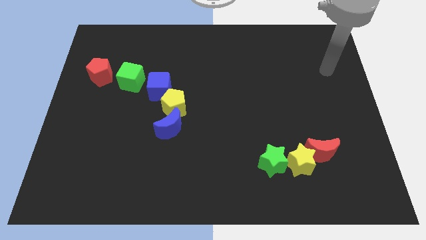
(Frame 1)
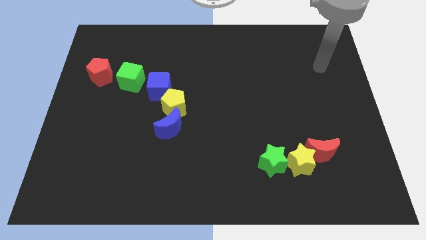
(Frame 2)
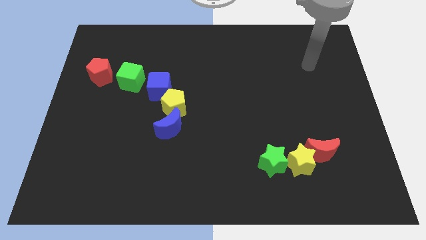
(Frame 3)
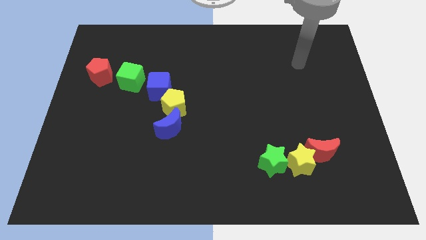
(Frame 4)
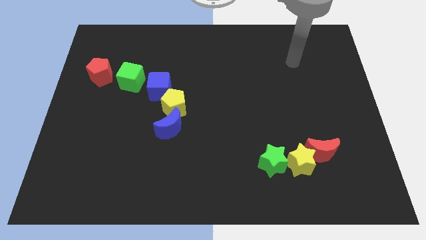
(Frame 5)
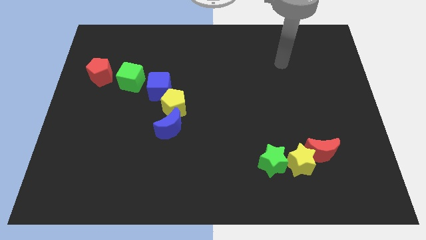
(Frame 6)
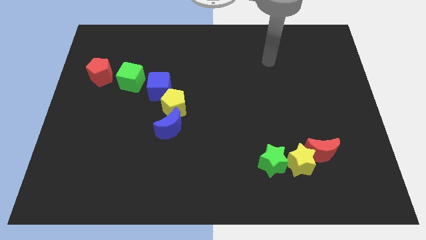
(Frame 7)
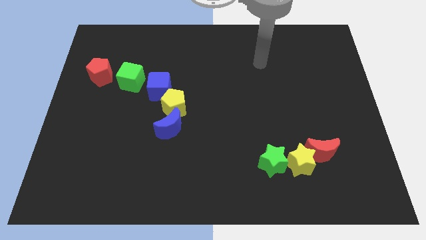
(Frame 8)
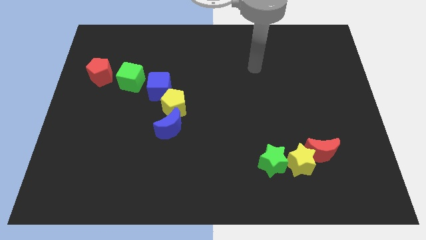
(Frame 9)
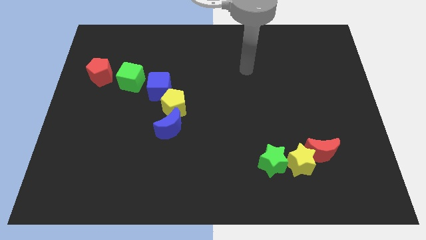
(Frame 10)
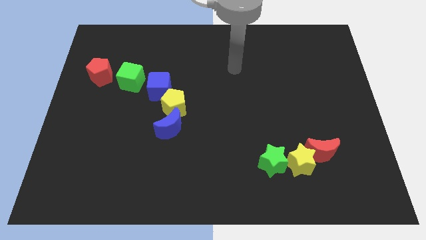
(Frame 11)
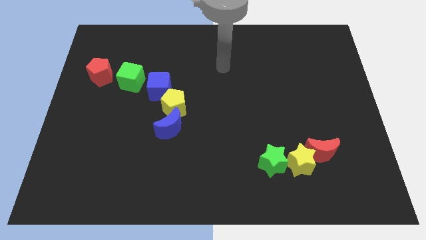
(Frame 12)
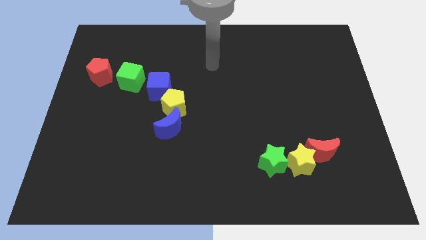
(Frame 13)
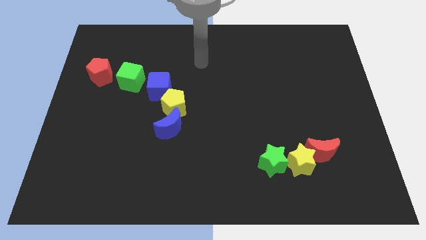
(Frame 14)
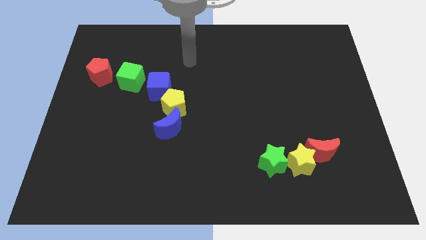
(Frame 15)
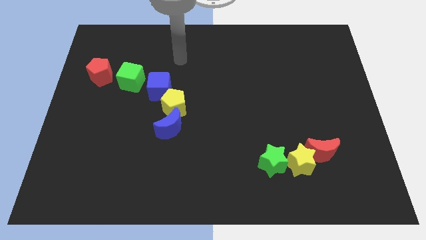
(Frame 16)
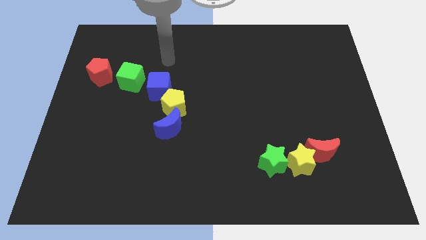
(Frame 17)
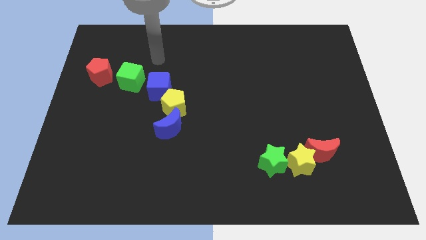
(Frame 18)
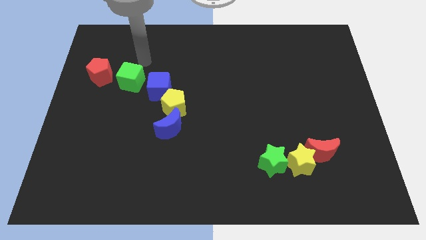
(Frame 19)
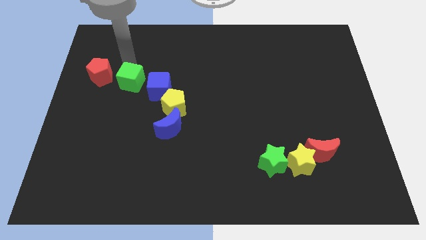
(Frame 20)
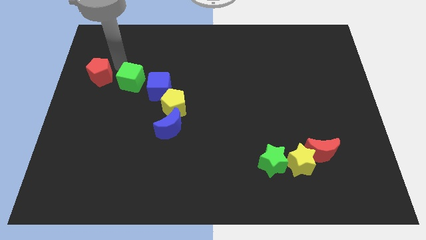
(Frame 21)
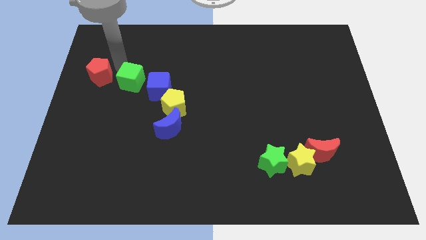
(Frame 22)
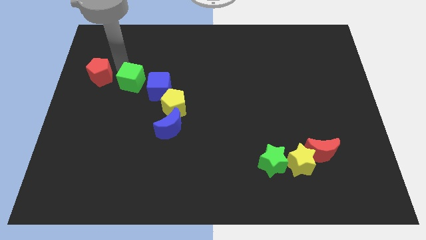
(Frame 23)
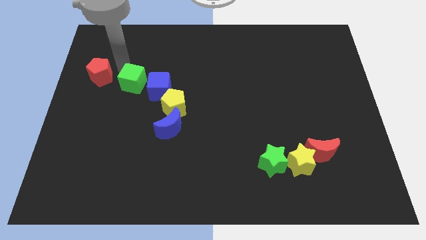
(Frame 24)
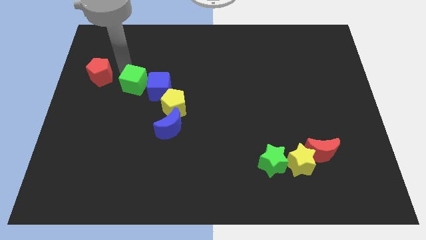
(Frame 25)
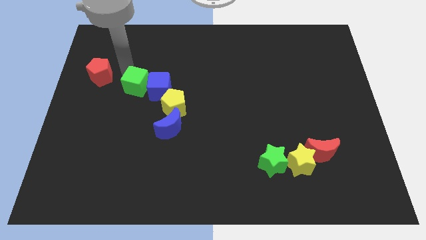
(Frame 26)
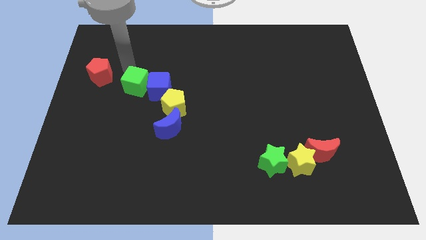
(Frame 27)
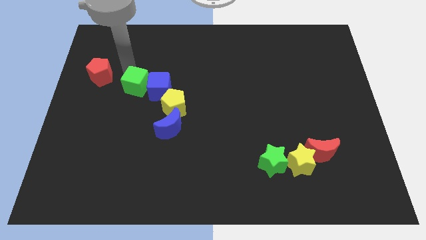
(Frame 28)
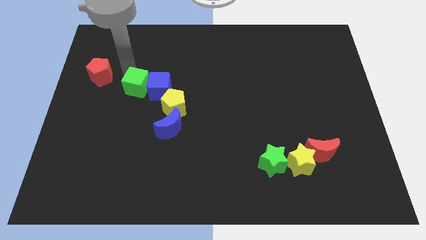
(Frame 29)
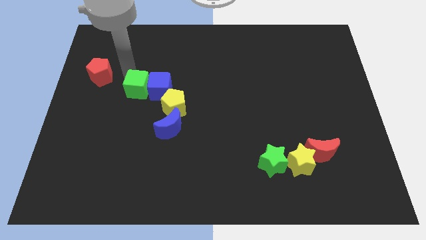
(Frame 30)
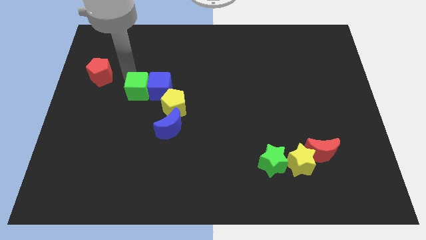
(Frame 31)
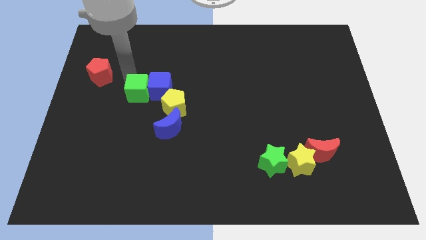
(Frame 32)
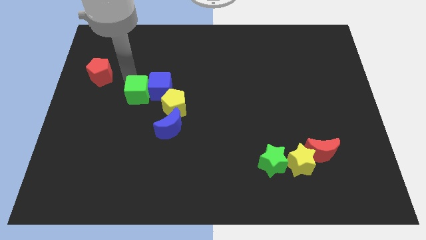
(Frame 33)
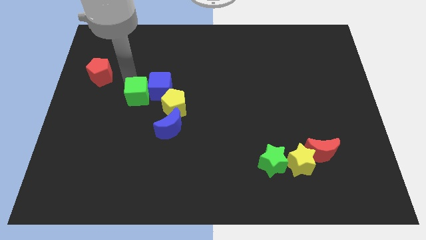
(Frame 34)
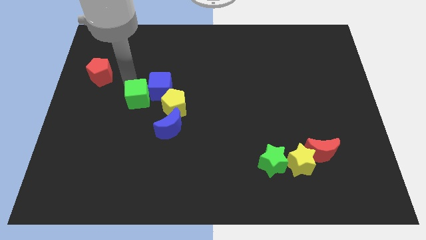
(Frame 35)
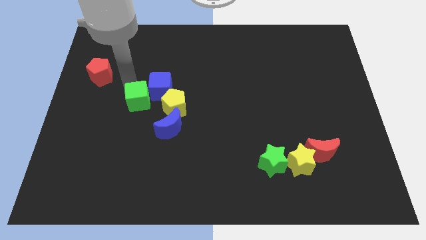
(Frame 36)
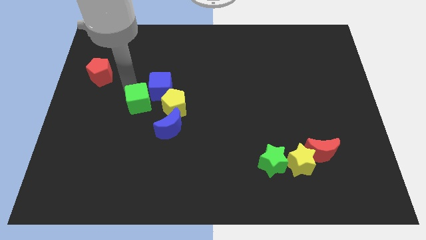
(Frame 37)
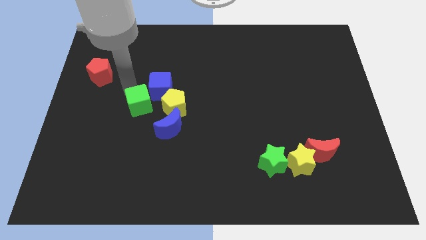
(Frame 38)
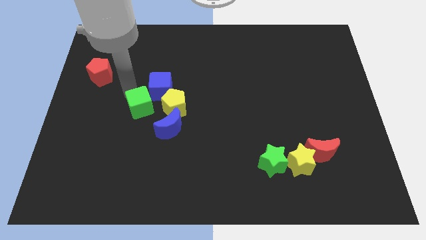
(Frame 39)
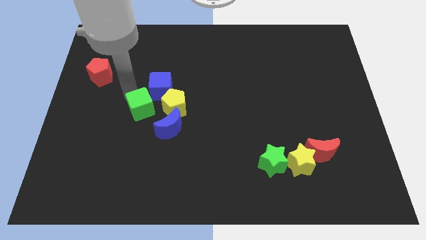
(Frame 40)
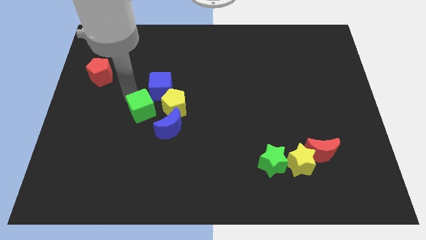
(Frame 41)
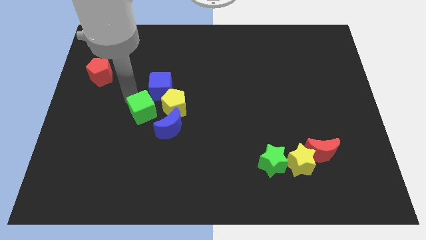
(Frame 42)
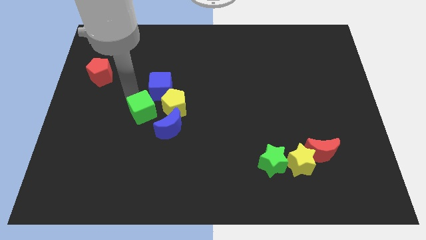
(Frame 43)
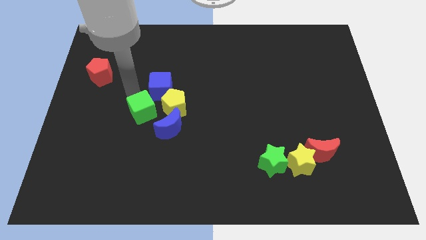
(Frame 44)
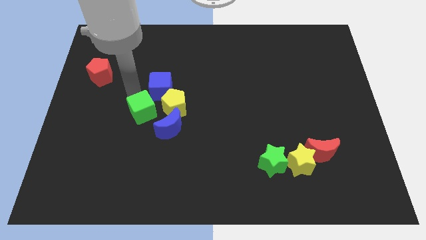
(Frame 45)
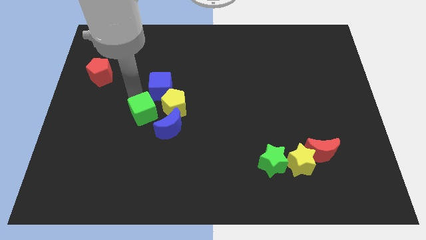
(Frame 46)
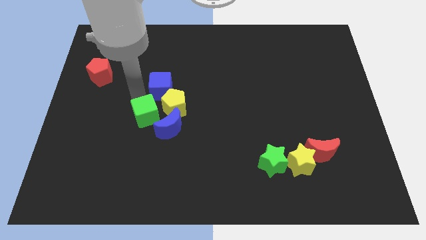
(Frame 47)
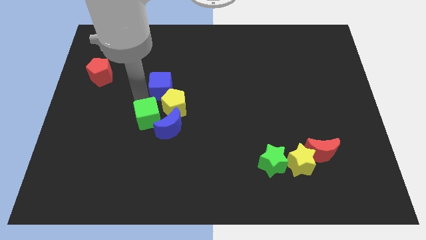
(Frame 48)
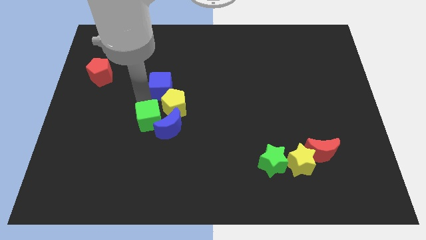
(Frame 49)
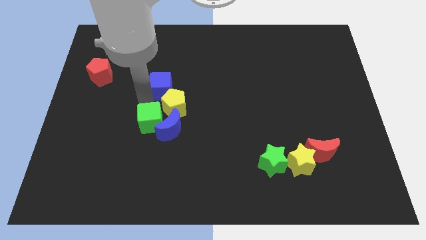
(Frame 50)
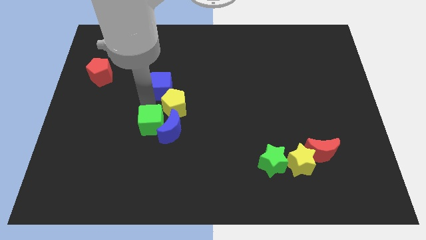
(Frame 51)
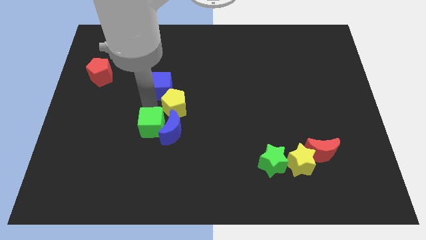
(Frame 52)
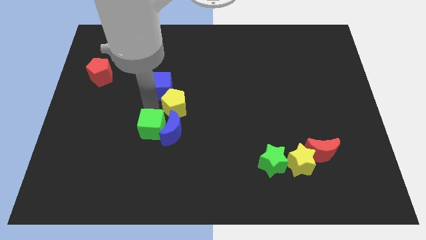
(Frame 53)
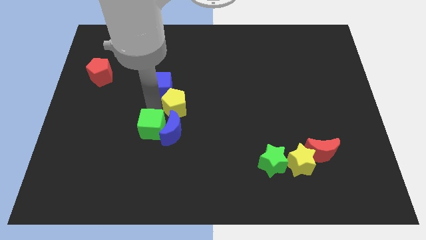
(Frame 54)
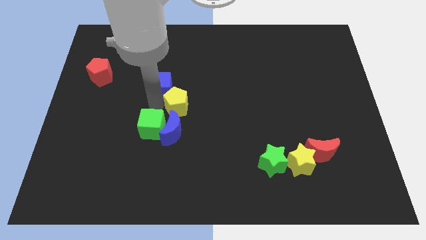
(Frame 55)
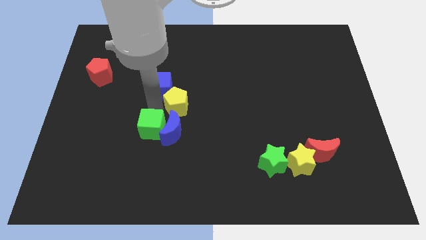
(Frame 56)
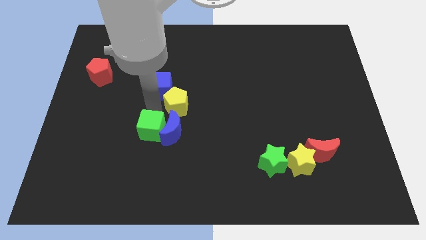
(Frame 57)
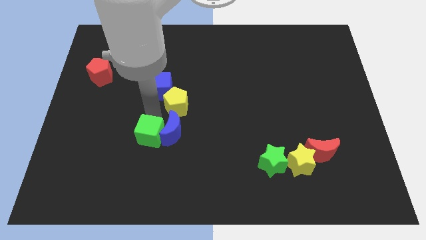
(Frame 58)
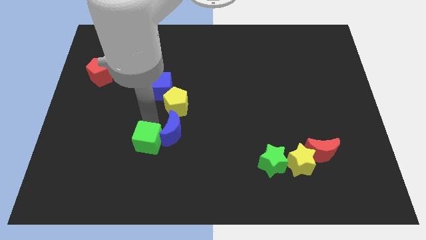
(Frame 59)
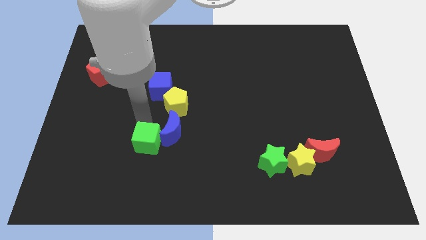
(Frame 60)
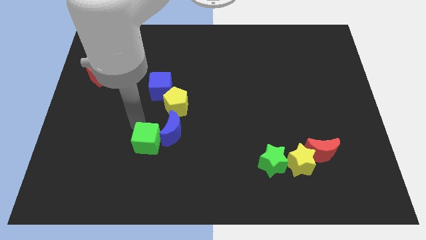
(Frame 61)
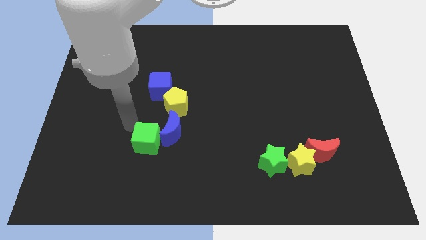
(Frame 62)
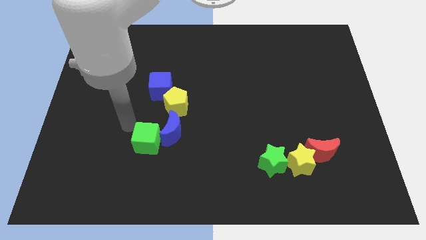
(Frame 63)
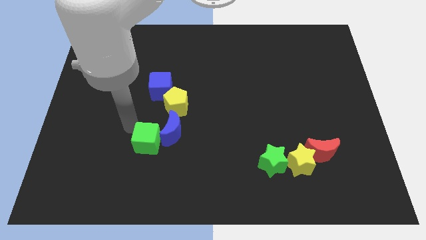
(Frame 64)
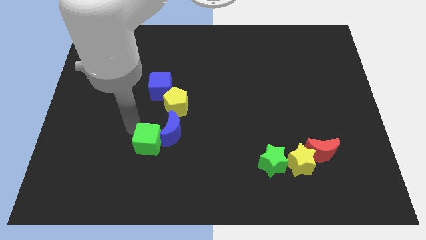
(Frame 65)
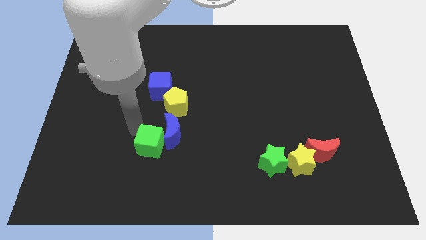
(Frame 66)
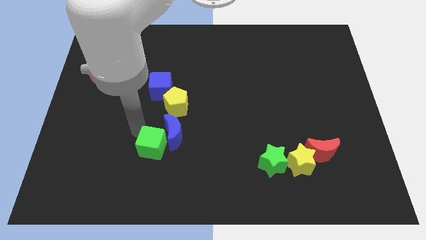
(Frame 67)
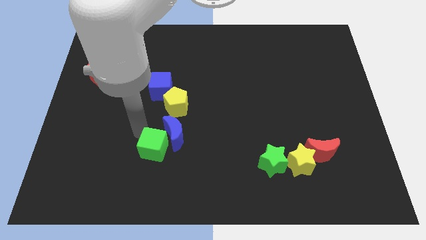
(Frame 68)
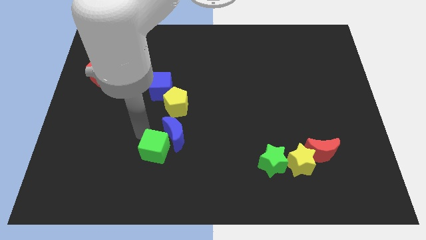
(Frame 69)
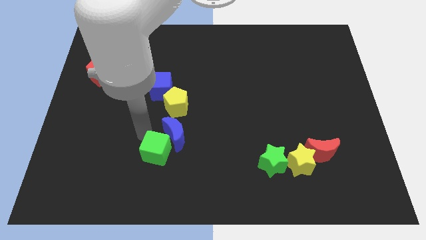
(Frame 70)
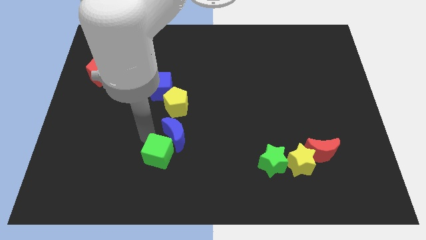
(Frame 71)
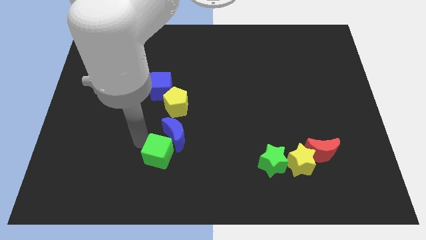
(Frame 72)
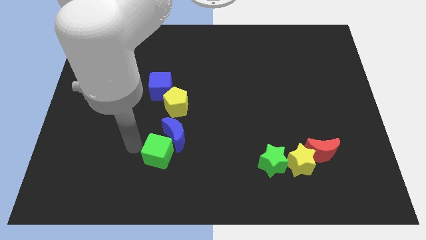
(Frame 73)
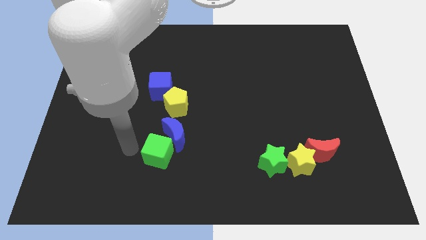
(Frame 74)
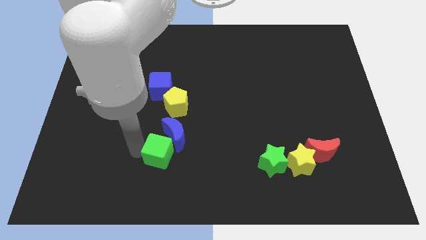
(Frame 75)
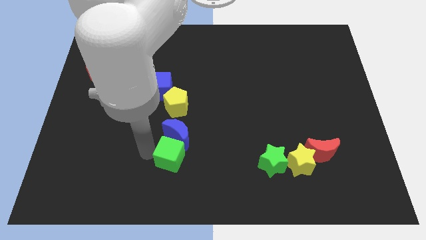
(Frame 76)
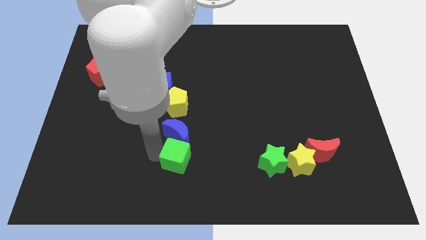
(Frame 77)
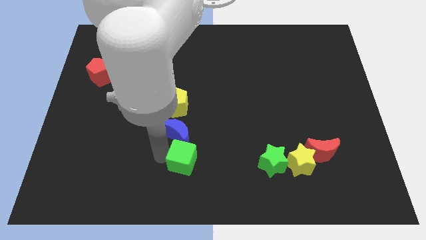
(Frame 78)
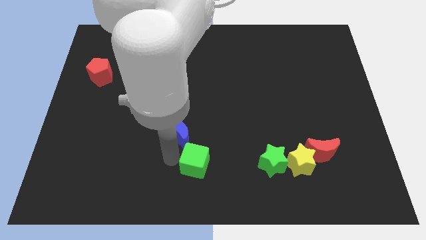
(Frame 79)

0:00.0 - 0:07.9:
push the green cube to the left side of the green star
